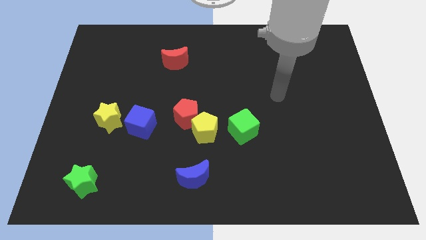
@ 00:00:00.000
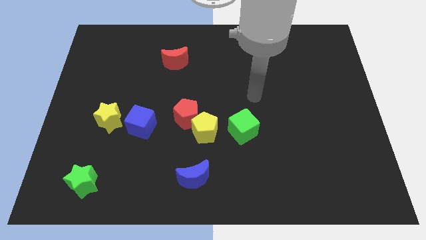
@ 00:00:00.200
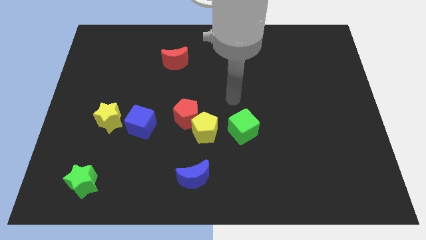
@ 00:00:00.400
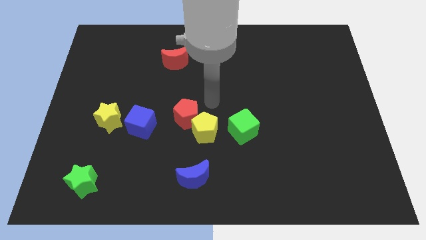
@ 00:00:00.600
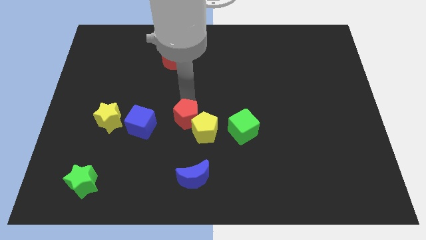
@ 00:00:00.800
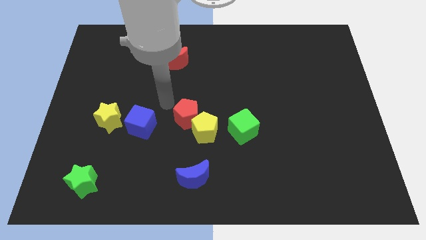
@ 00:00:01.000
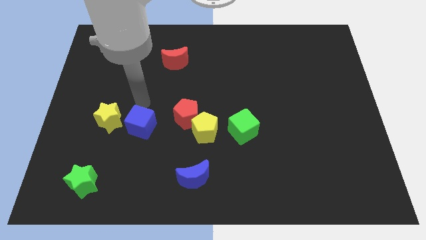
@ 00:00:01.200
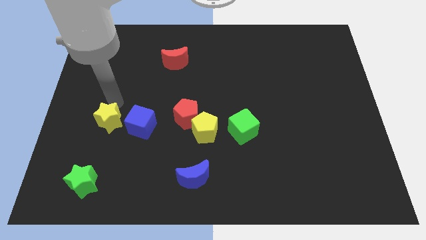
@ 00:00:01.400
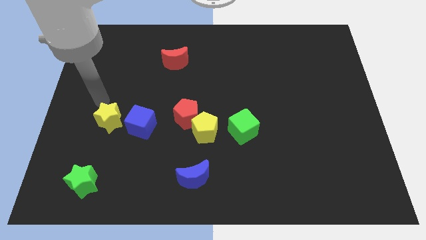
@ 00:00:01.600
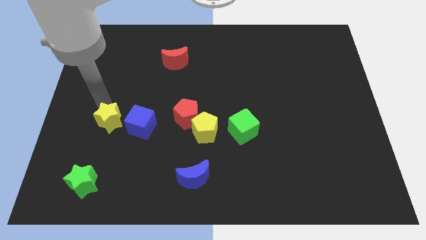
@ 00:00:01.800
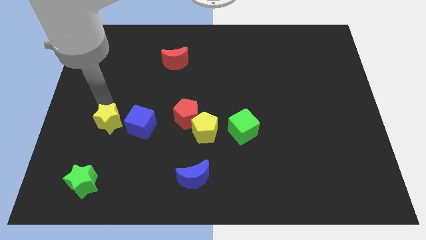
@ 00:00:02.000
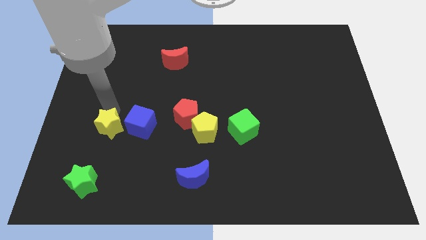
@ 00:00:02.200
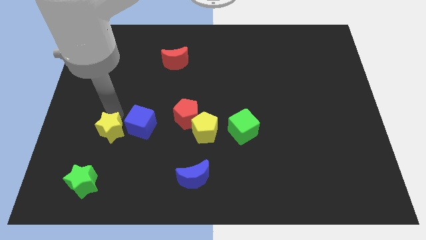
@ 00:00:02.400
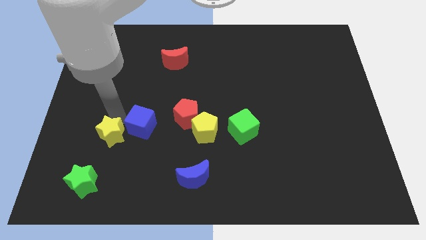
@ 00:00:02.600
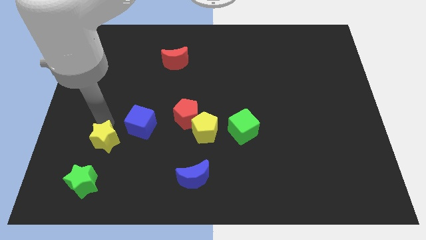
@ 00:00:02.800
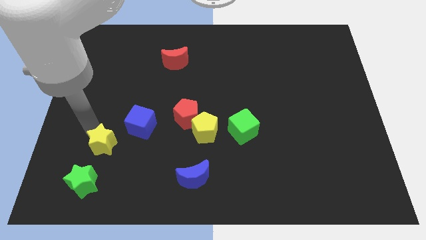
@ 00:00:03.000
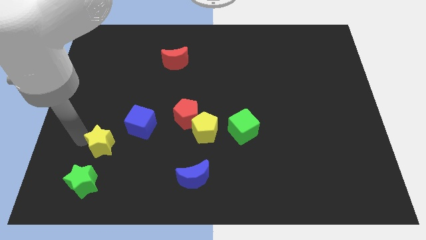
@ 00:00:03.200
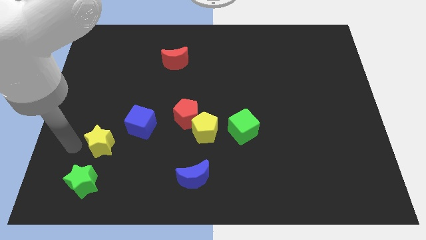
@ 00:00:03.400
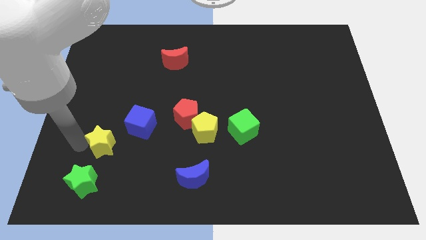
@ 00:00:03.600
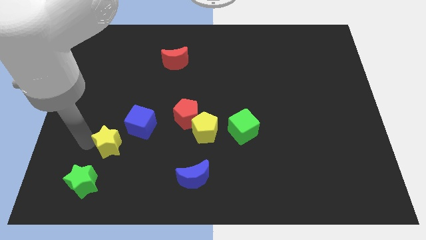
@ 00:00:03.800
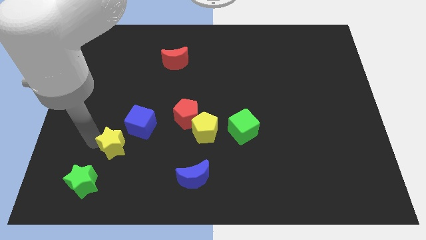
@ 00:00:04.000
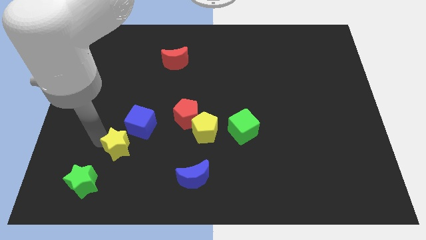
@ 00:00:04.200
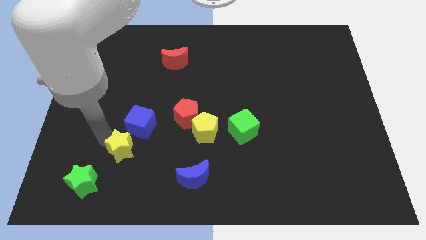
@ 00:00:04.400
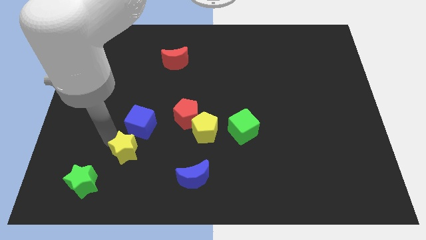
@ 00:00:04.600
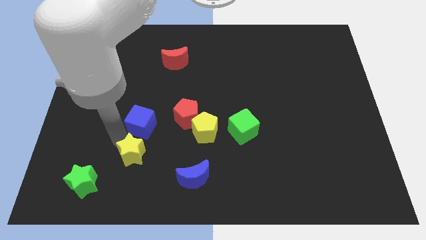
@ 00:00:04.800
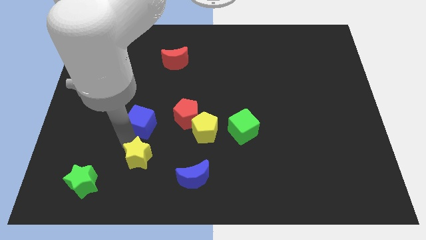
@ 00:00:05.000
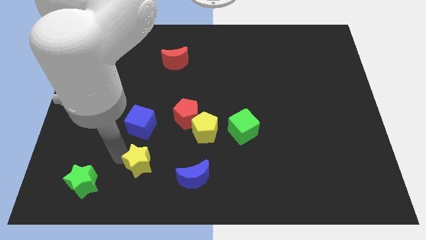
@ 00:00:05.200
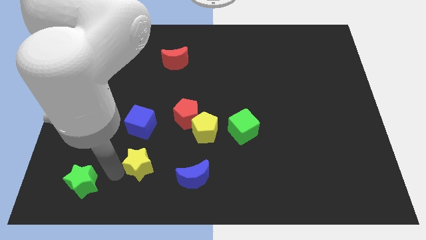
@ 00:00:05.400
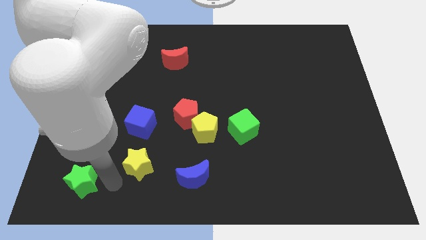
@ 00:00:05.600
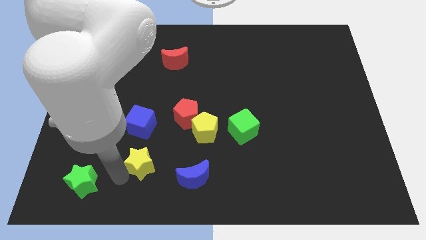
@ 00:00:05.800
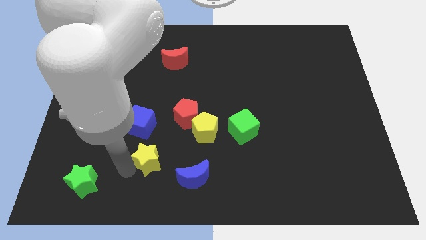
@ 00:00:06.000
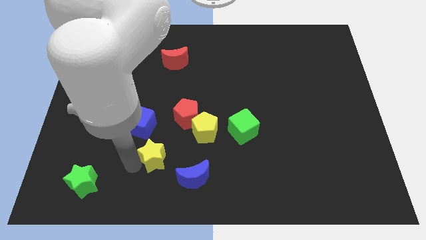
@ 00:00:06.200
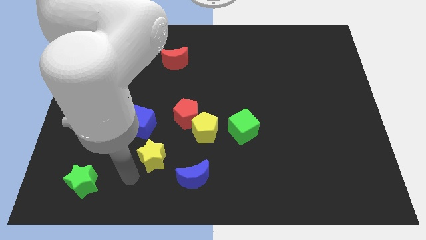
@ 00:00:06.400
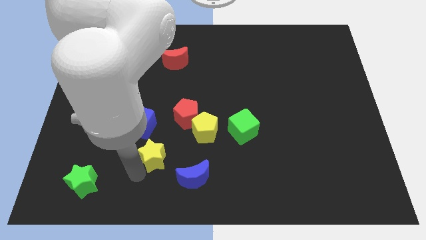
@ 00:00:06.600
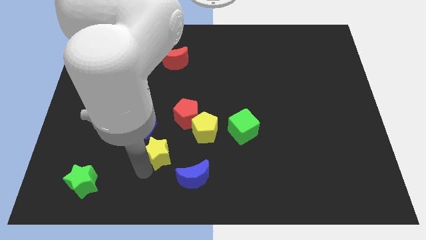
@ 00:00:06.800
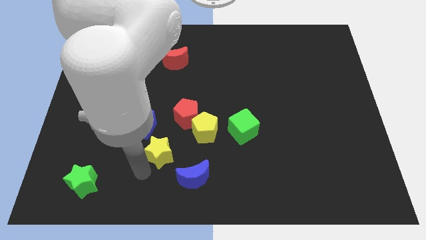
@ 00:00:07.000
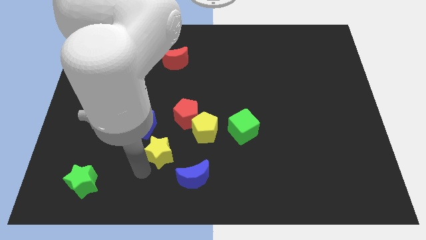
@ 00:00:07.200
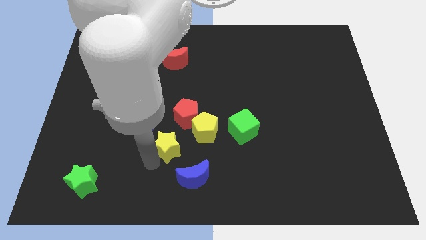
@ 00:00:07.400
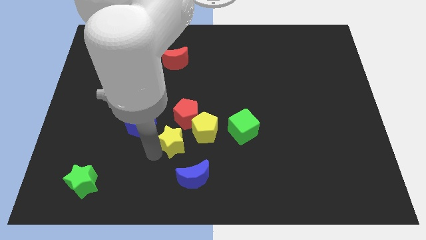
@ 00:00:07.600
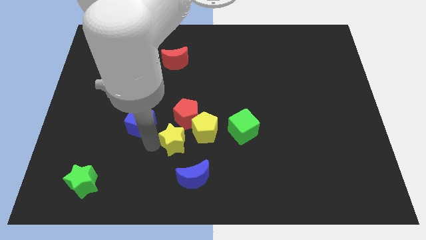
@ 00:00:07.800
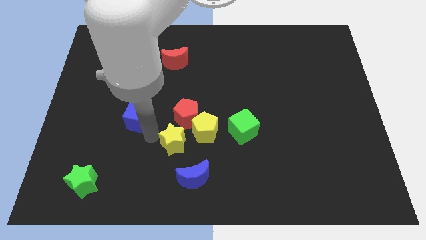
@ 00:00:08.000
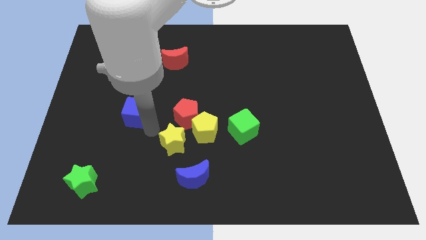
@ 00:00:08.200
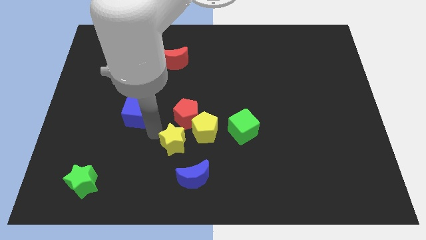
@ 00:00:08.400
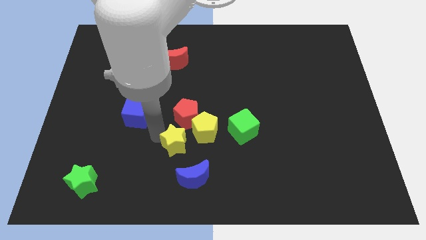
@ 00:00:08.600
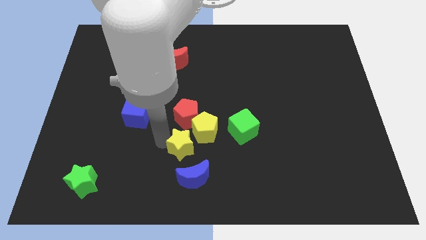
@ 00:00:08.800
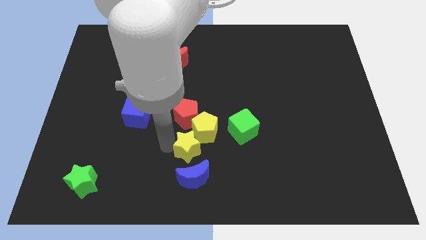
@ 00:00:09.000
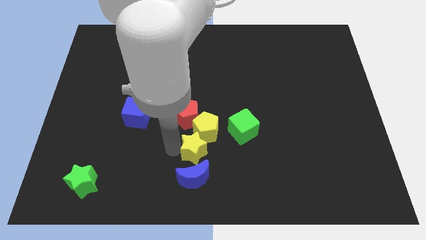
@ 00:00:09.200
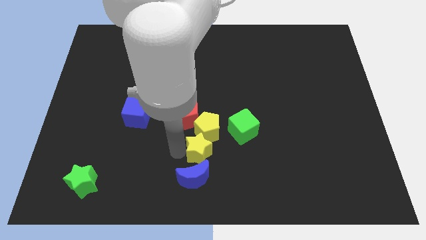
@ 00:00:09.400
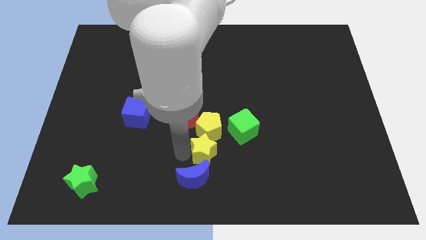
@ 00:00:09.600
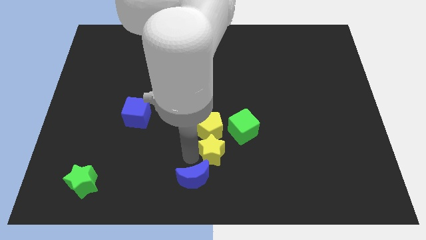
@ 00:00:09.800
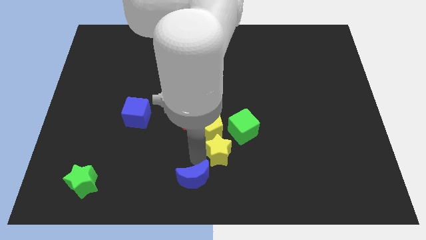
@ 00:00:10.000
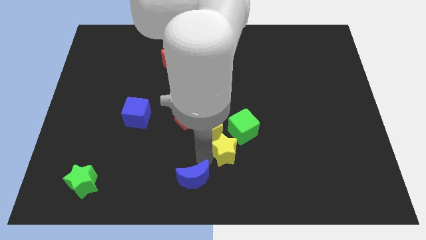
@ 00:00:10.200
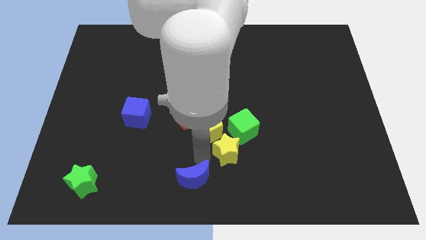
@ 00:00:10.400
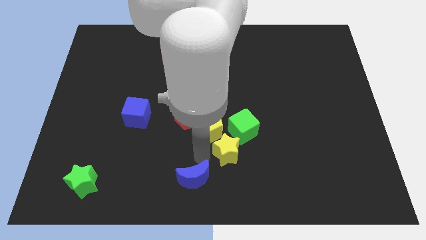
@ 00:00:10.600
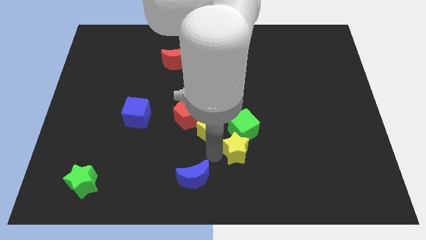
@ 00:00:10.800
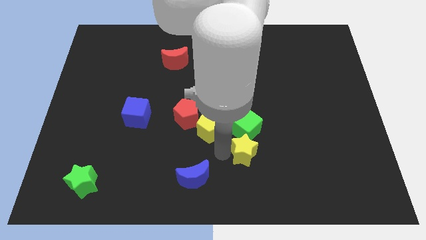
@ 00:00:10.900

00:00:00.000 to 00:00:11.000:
slide the yellow star diagonally down and to the right of the green cube

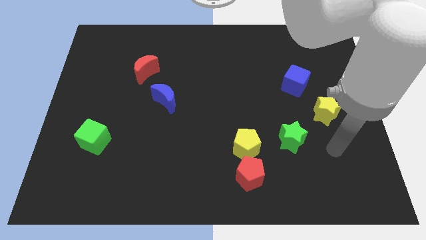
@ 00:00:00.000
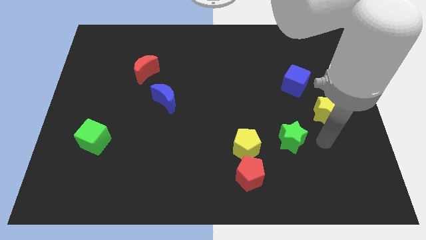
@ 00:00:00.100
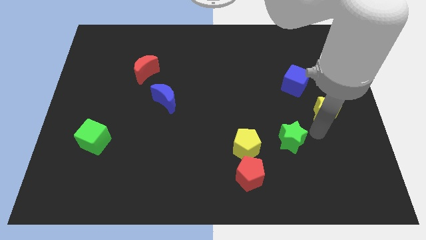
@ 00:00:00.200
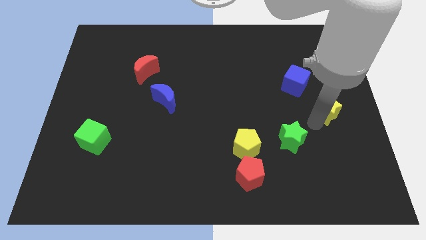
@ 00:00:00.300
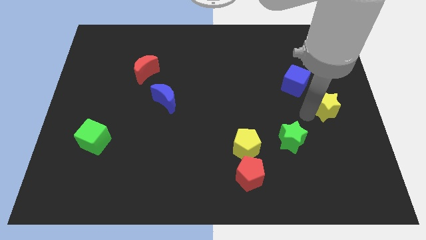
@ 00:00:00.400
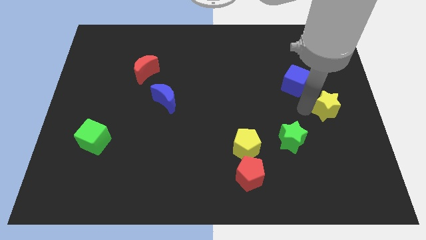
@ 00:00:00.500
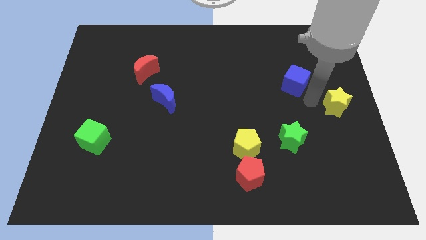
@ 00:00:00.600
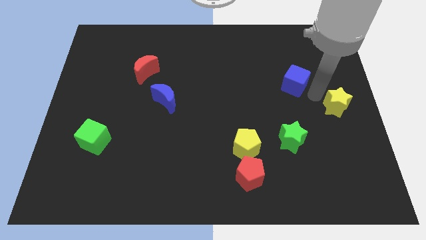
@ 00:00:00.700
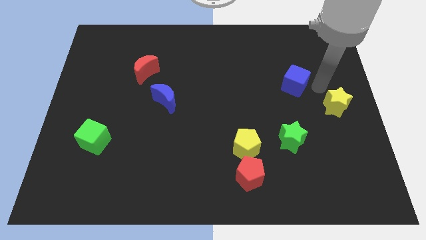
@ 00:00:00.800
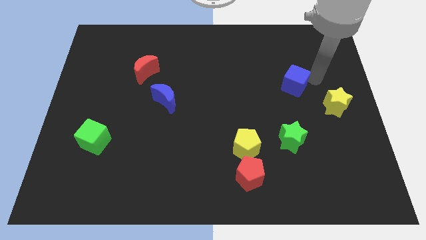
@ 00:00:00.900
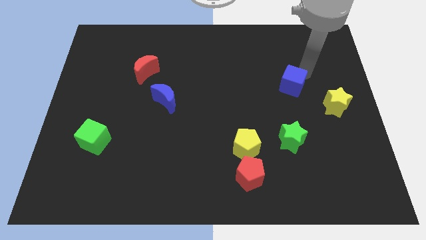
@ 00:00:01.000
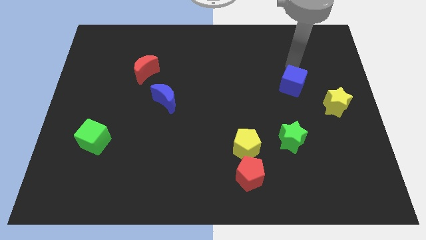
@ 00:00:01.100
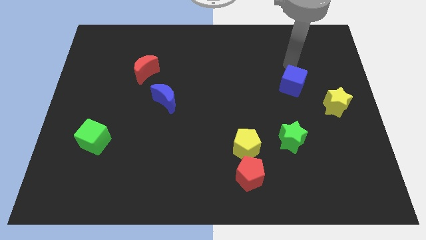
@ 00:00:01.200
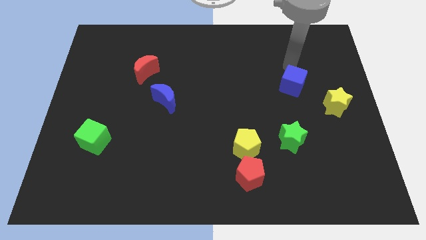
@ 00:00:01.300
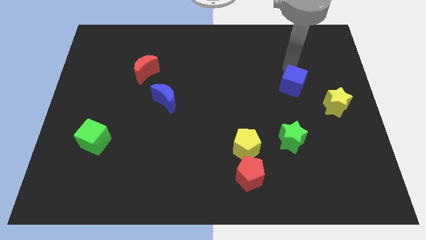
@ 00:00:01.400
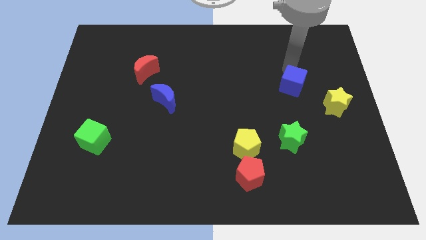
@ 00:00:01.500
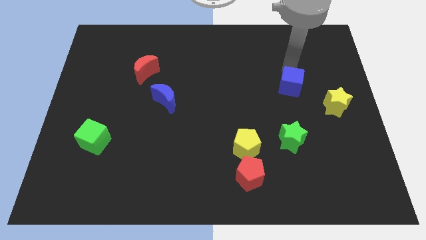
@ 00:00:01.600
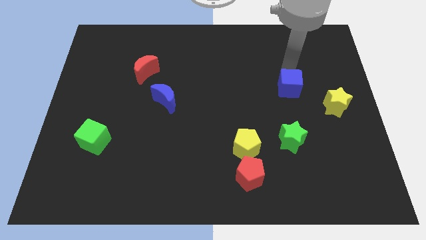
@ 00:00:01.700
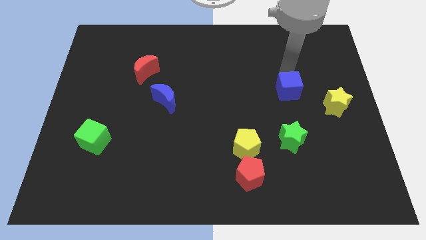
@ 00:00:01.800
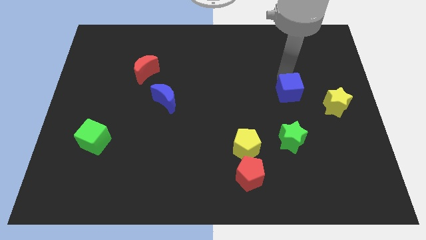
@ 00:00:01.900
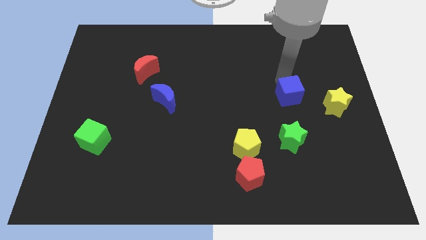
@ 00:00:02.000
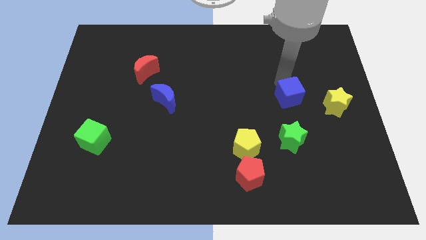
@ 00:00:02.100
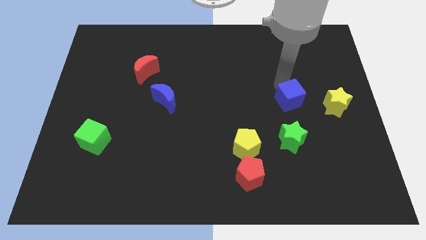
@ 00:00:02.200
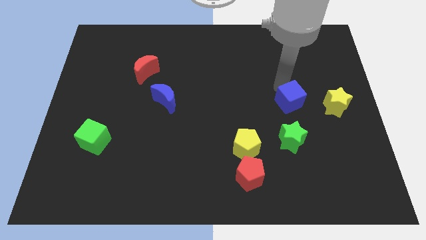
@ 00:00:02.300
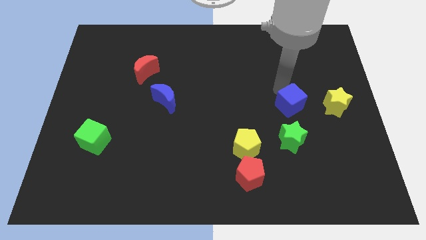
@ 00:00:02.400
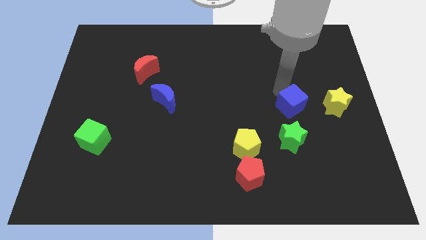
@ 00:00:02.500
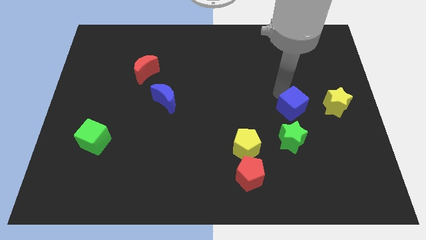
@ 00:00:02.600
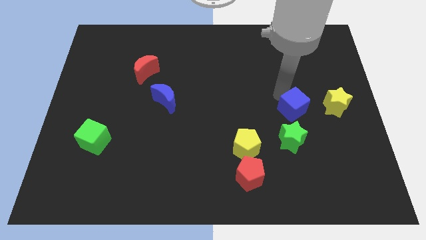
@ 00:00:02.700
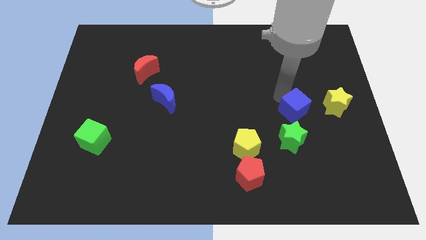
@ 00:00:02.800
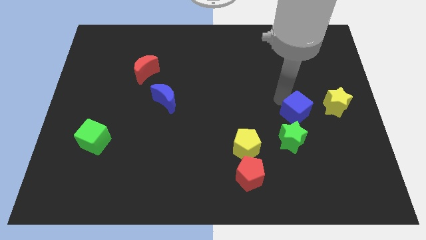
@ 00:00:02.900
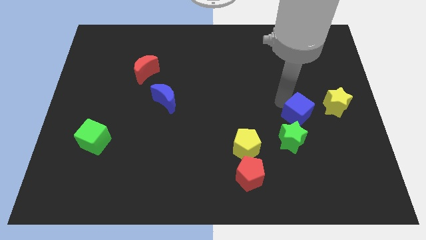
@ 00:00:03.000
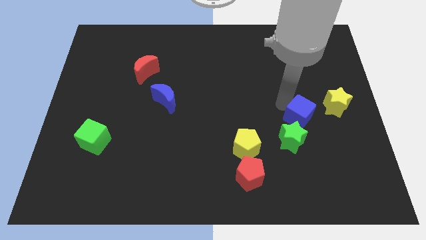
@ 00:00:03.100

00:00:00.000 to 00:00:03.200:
move the blue cube diagonally down and to the left of the yellow star
